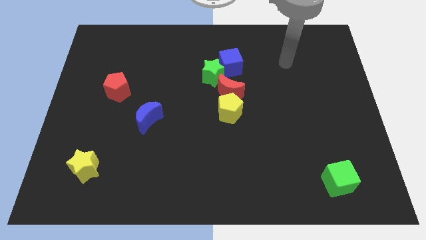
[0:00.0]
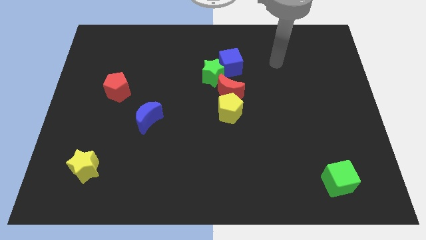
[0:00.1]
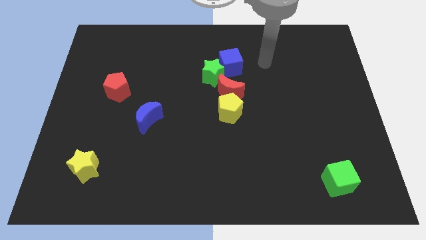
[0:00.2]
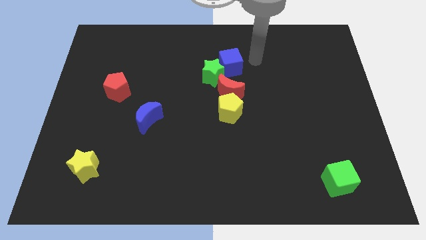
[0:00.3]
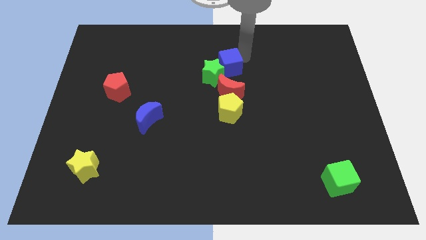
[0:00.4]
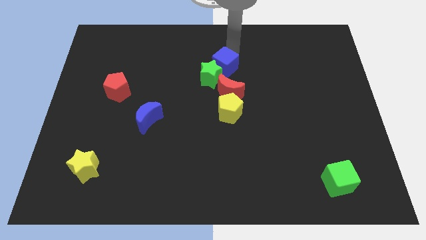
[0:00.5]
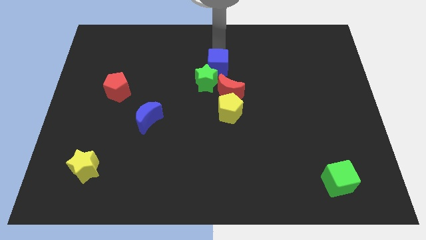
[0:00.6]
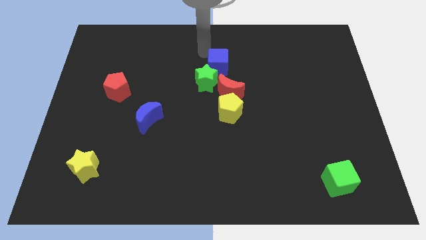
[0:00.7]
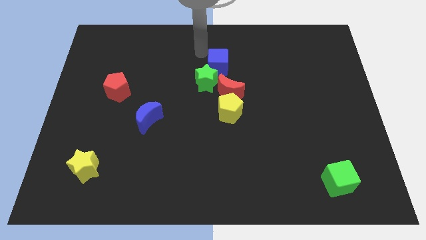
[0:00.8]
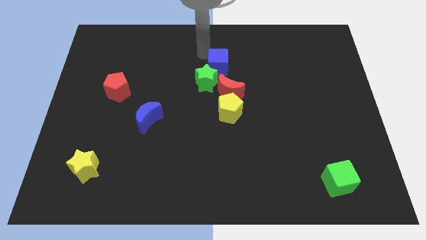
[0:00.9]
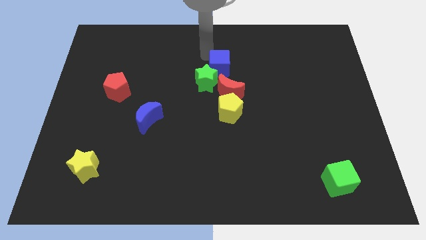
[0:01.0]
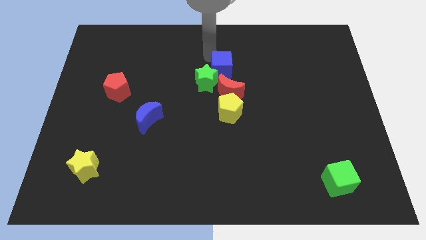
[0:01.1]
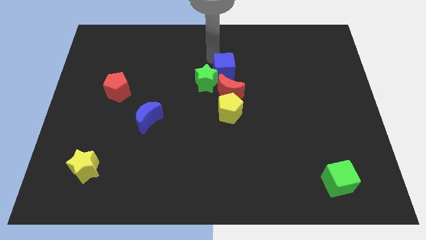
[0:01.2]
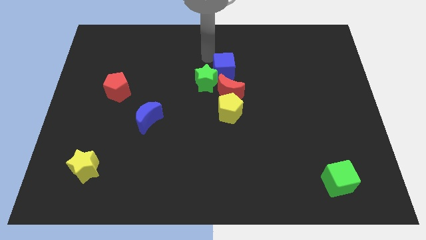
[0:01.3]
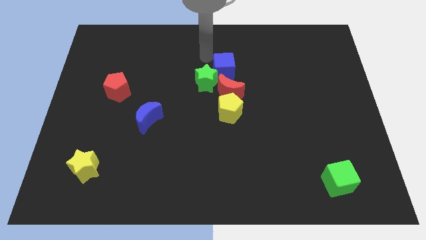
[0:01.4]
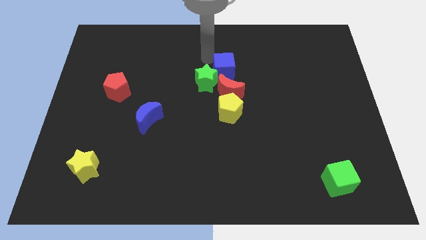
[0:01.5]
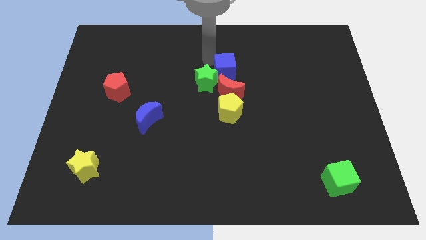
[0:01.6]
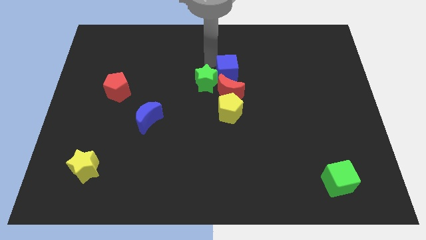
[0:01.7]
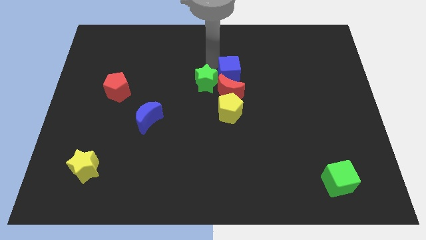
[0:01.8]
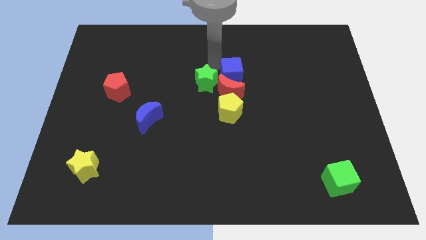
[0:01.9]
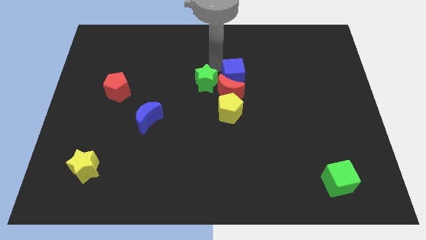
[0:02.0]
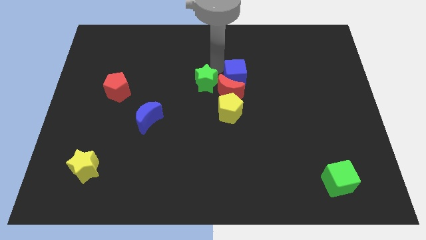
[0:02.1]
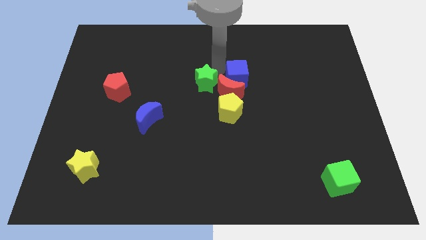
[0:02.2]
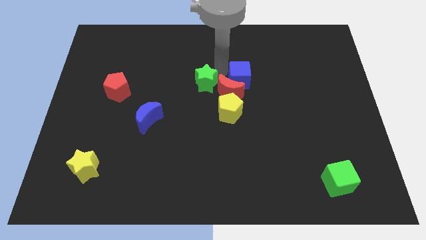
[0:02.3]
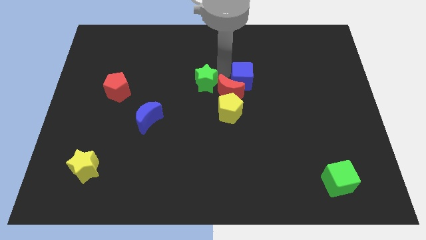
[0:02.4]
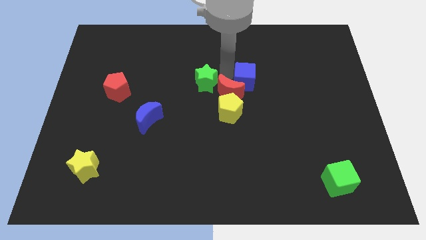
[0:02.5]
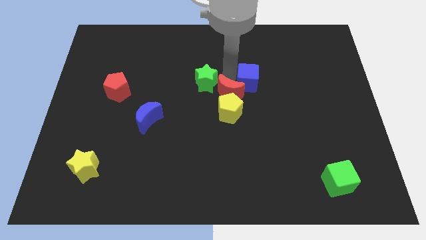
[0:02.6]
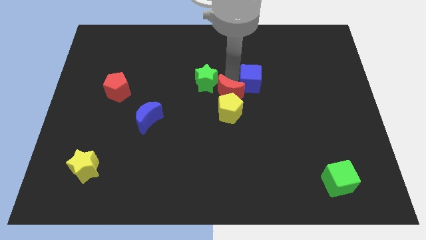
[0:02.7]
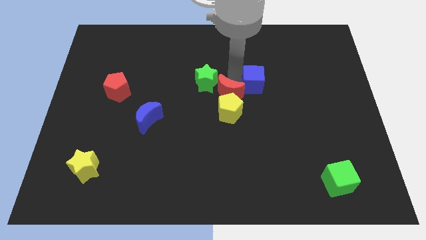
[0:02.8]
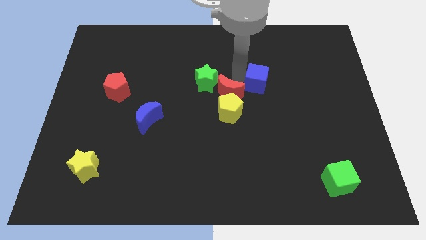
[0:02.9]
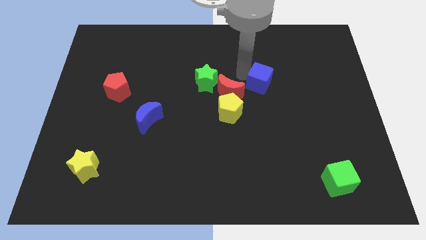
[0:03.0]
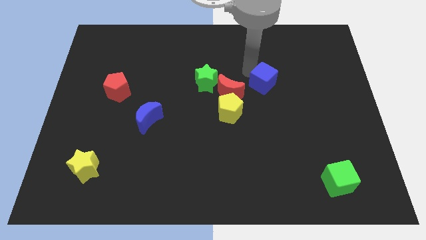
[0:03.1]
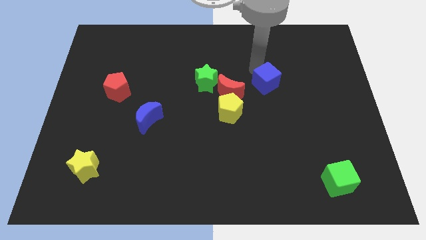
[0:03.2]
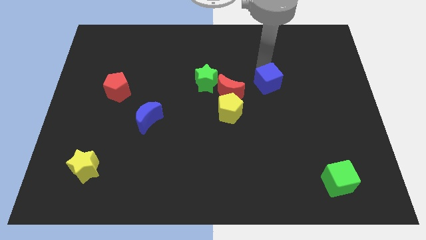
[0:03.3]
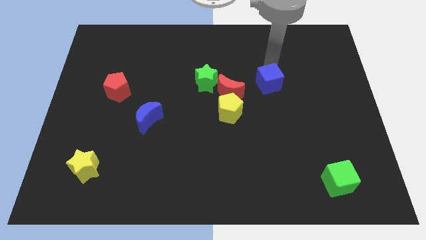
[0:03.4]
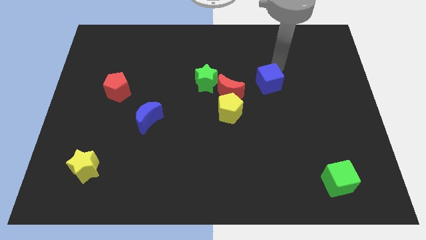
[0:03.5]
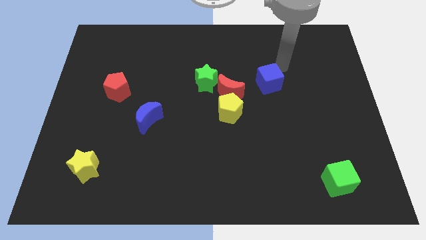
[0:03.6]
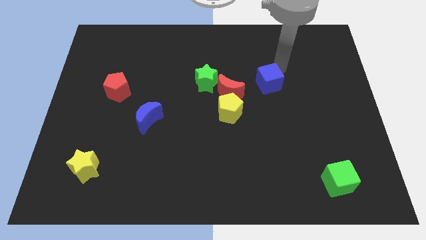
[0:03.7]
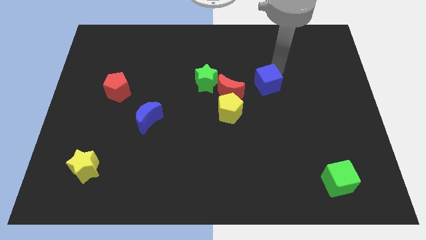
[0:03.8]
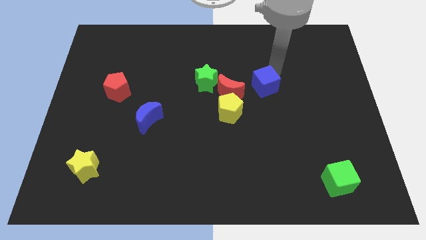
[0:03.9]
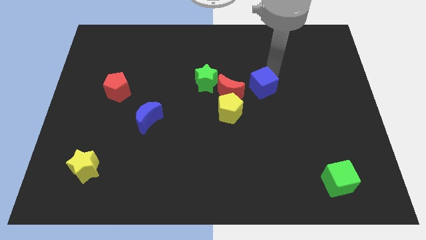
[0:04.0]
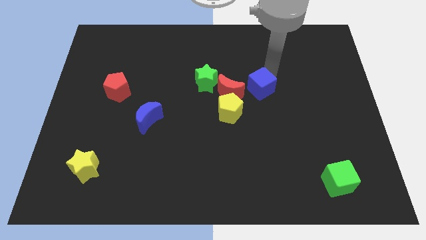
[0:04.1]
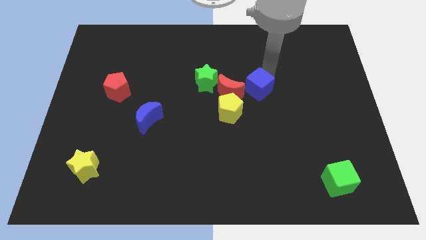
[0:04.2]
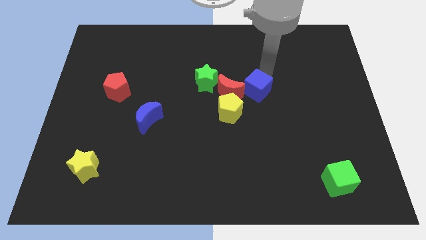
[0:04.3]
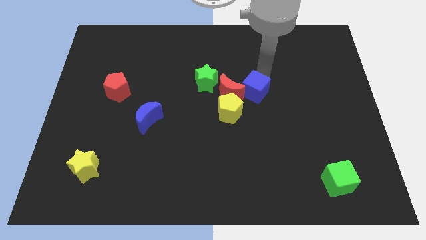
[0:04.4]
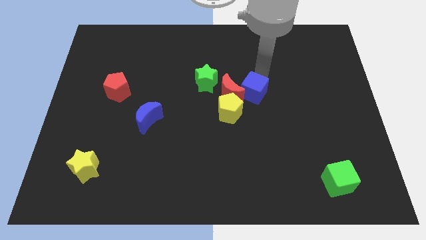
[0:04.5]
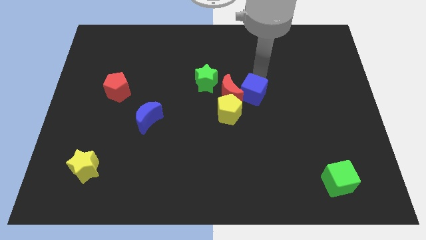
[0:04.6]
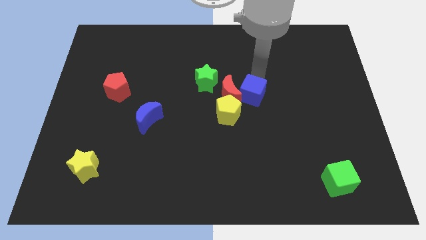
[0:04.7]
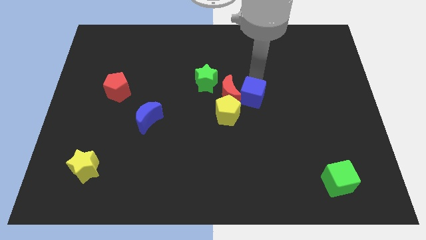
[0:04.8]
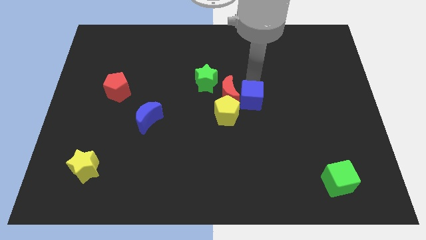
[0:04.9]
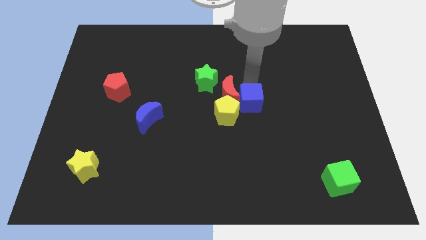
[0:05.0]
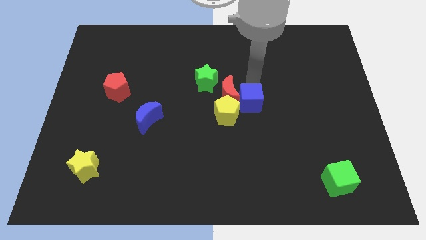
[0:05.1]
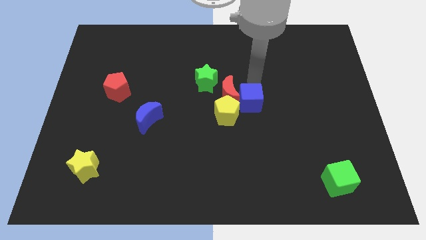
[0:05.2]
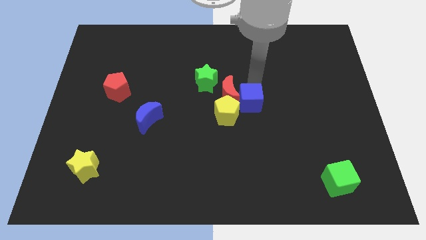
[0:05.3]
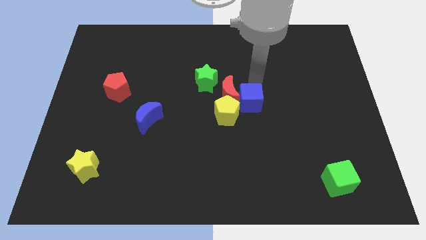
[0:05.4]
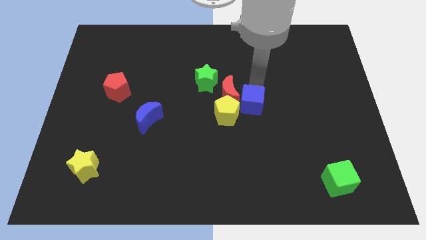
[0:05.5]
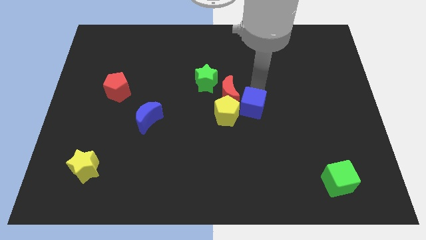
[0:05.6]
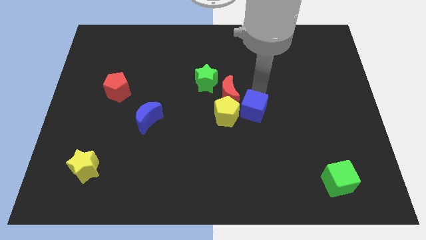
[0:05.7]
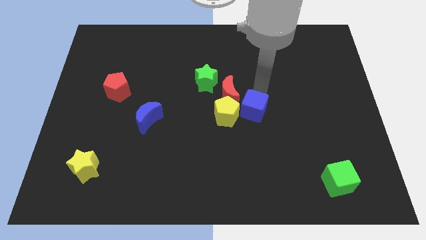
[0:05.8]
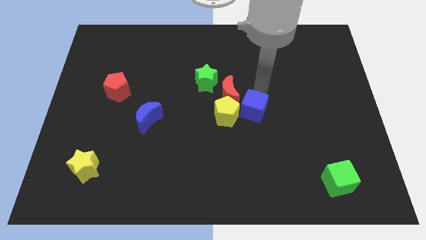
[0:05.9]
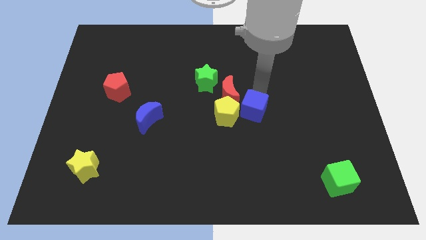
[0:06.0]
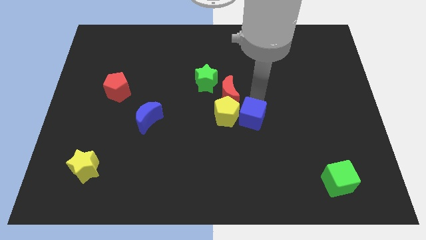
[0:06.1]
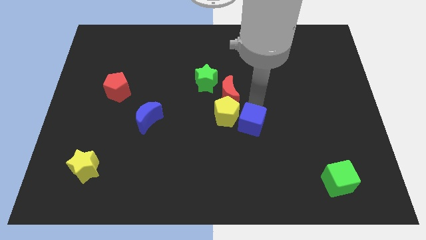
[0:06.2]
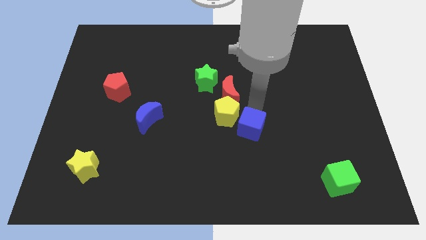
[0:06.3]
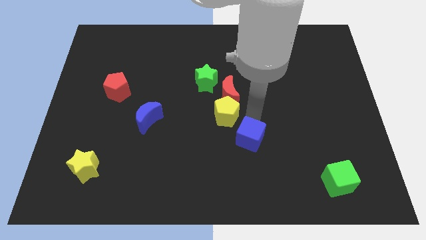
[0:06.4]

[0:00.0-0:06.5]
push the blue cube down

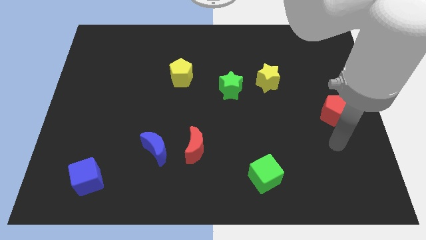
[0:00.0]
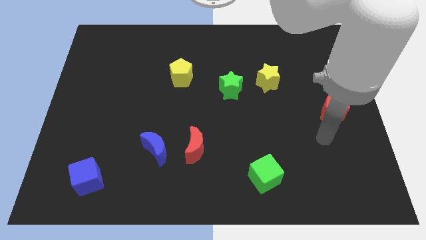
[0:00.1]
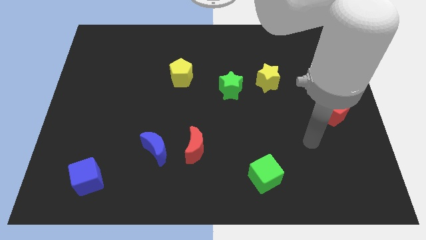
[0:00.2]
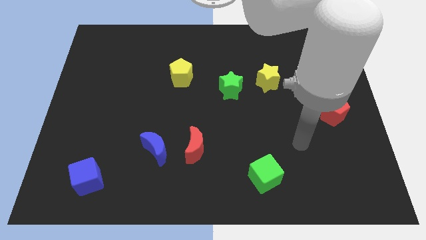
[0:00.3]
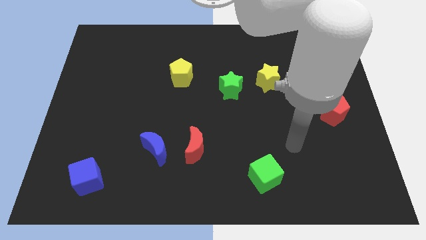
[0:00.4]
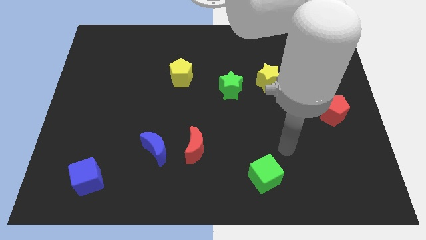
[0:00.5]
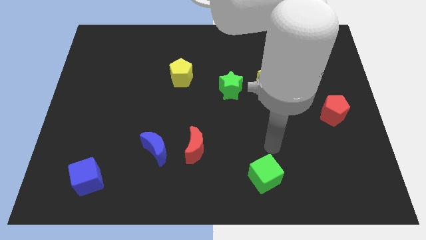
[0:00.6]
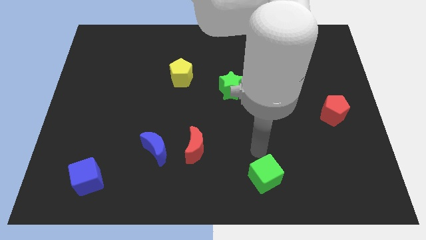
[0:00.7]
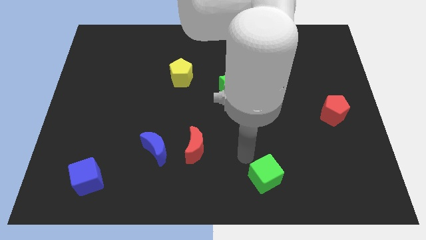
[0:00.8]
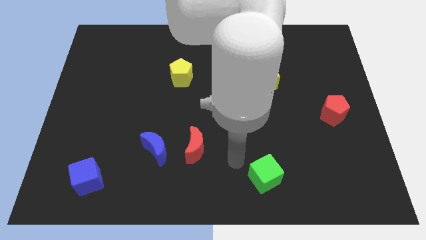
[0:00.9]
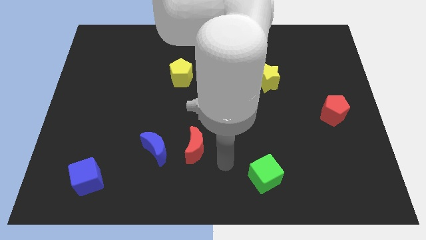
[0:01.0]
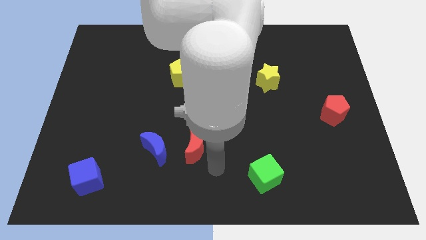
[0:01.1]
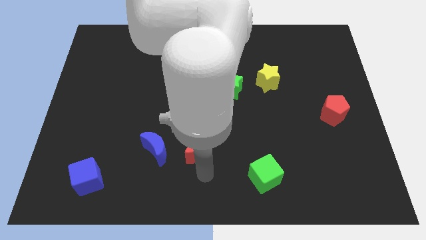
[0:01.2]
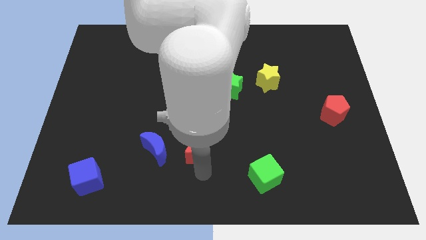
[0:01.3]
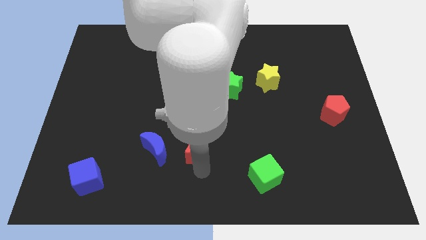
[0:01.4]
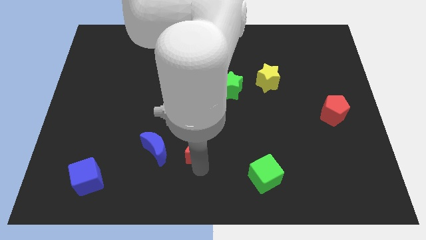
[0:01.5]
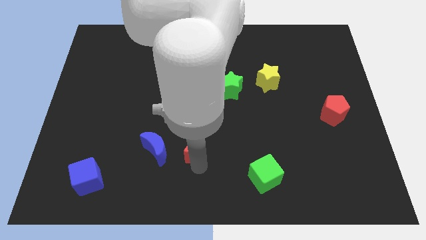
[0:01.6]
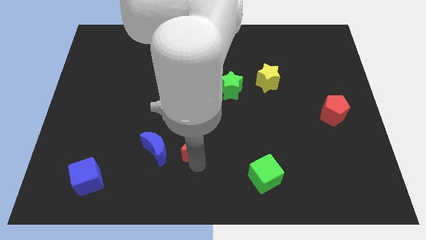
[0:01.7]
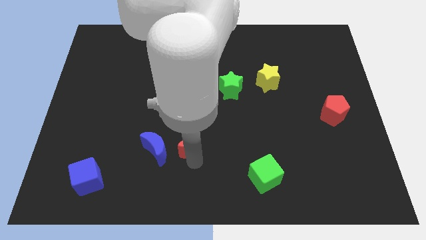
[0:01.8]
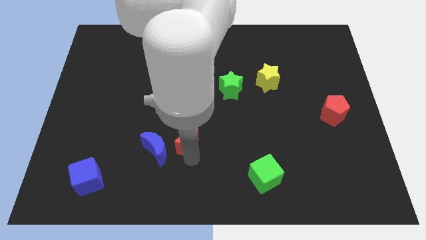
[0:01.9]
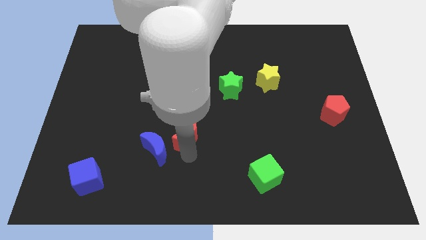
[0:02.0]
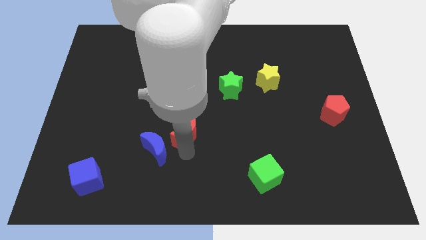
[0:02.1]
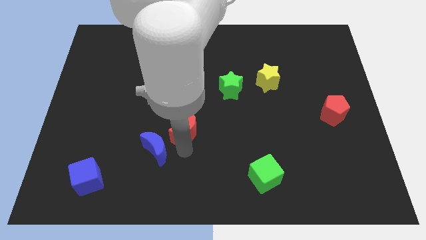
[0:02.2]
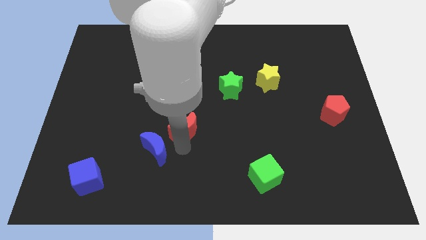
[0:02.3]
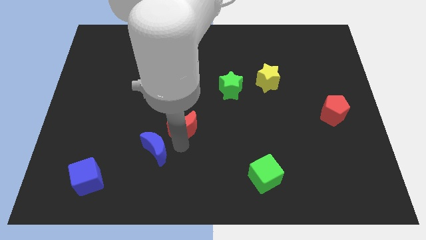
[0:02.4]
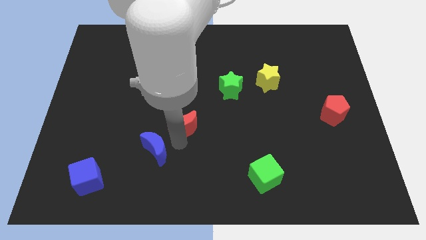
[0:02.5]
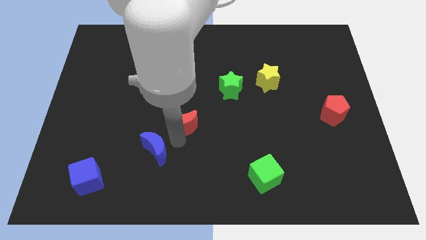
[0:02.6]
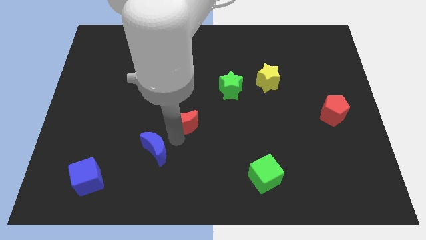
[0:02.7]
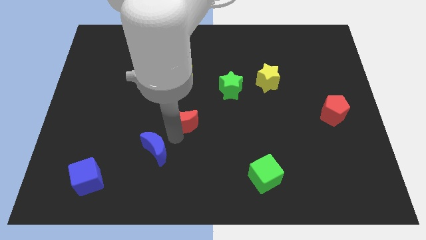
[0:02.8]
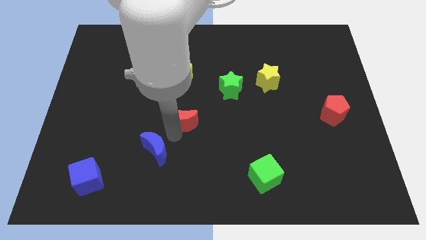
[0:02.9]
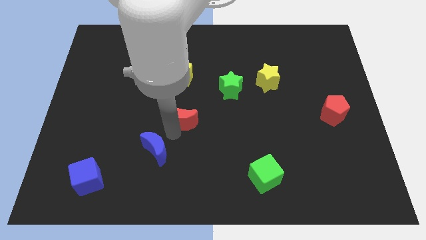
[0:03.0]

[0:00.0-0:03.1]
slide the red moon somewhat upwards
